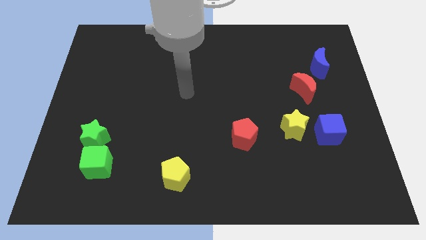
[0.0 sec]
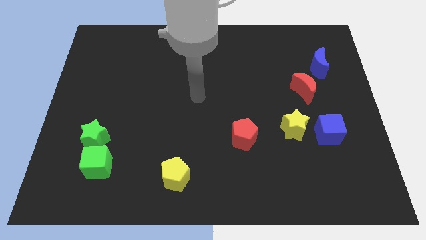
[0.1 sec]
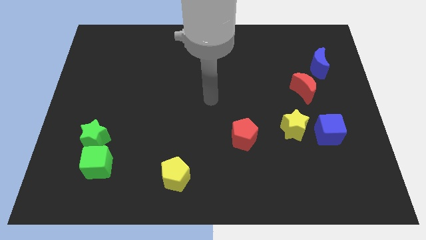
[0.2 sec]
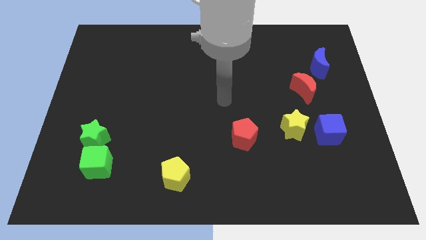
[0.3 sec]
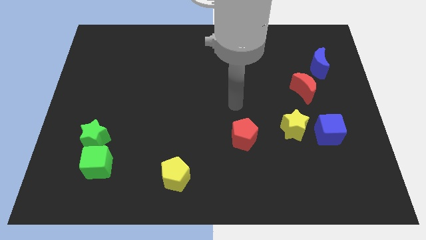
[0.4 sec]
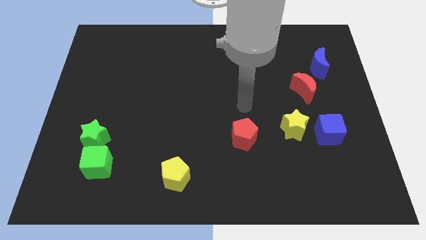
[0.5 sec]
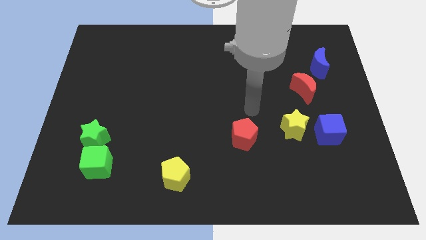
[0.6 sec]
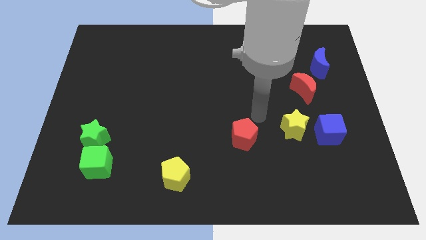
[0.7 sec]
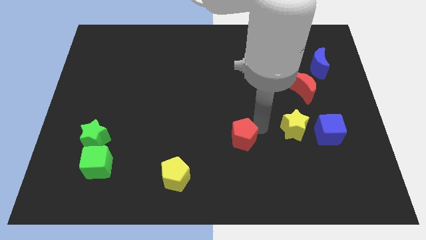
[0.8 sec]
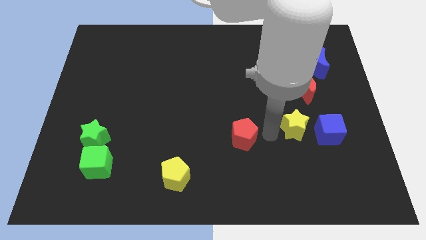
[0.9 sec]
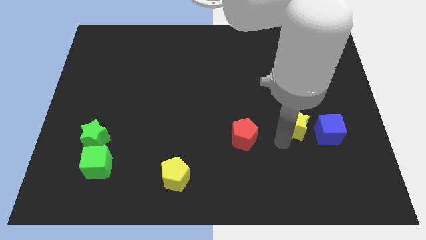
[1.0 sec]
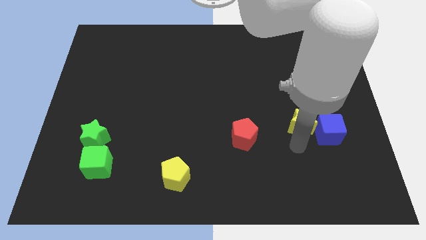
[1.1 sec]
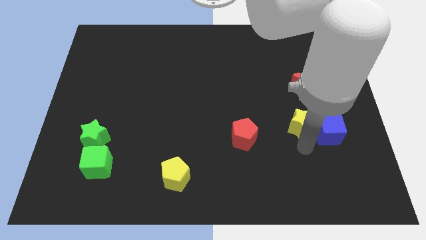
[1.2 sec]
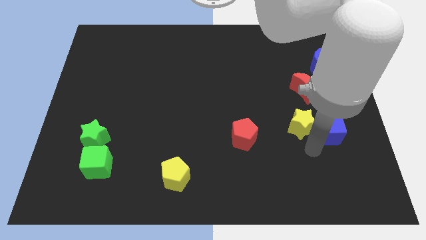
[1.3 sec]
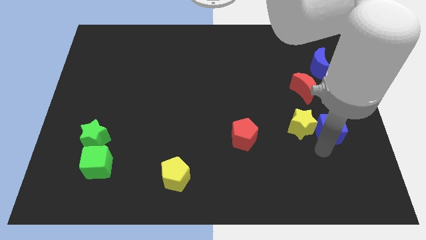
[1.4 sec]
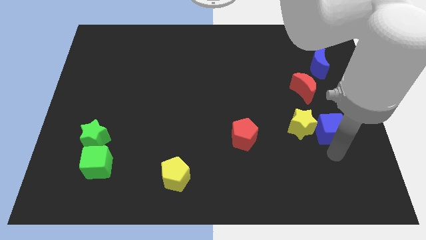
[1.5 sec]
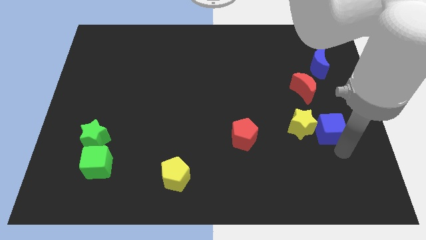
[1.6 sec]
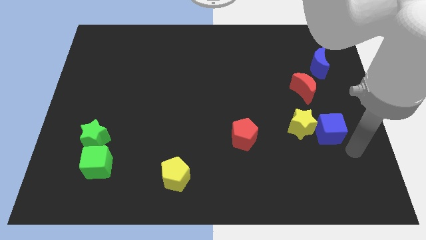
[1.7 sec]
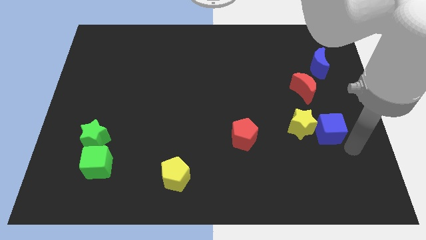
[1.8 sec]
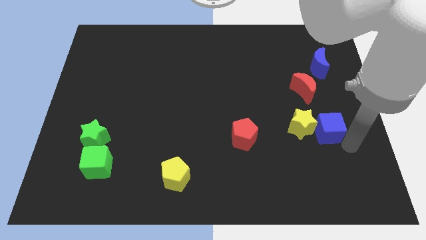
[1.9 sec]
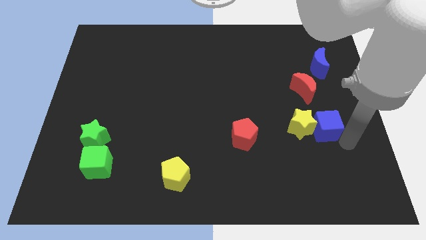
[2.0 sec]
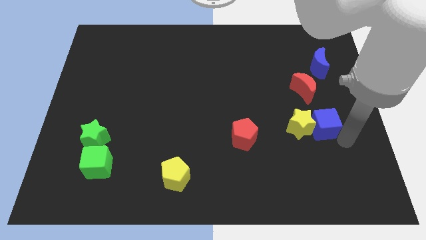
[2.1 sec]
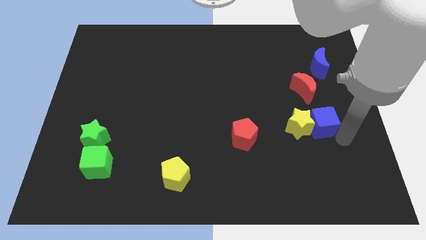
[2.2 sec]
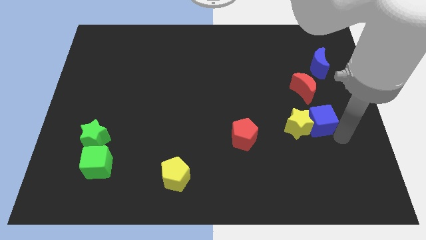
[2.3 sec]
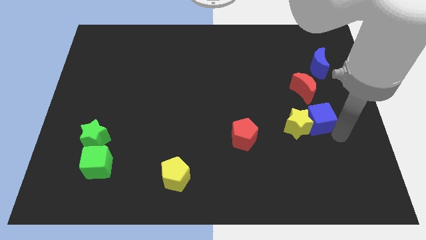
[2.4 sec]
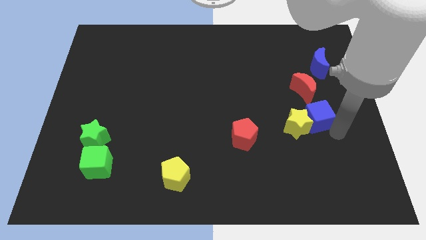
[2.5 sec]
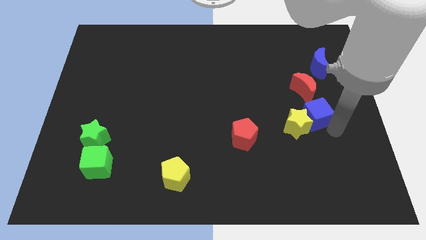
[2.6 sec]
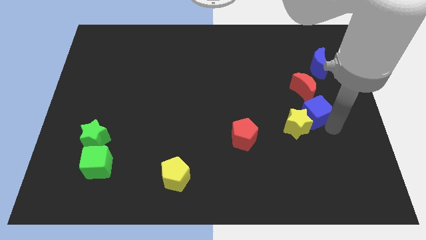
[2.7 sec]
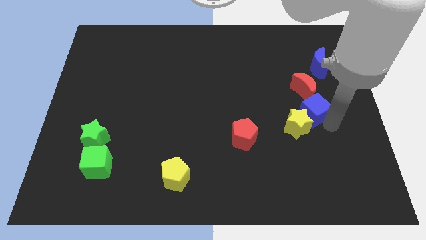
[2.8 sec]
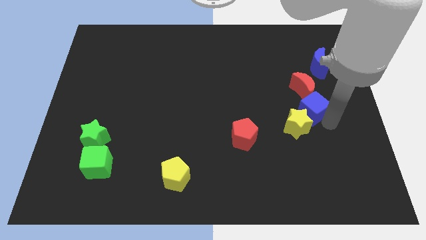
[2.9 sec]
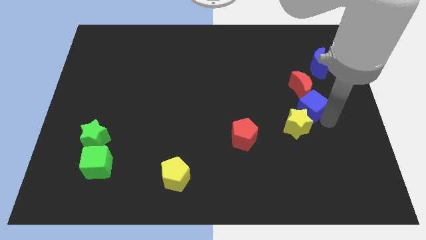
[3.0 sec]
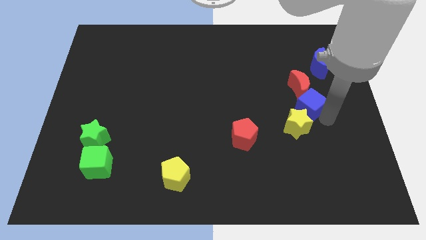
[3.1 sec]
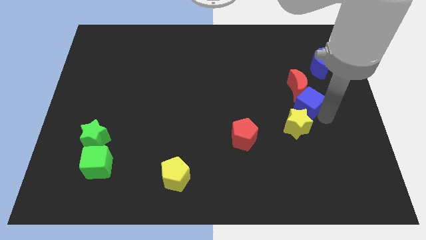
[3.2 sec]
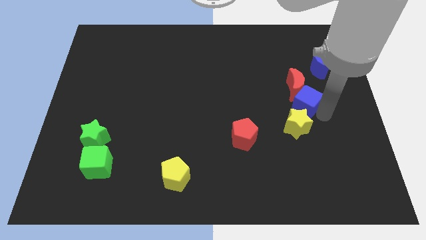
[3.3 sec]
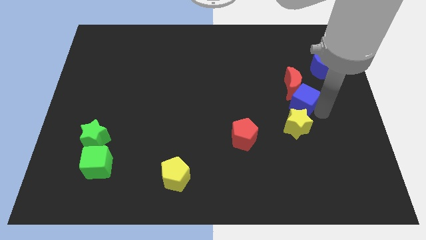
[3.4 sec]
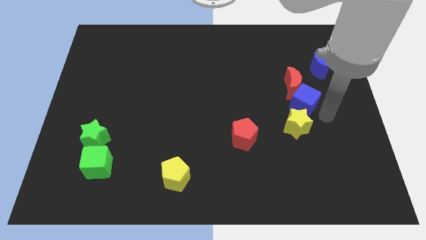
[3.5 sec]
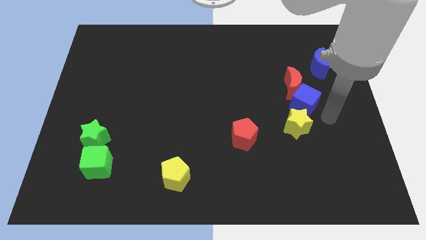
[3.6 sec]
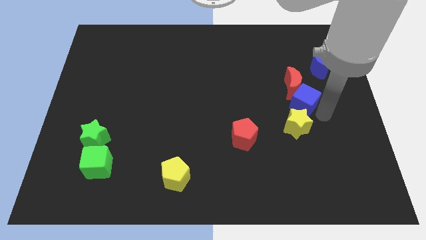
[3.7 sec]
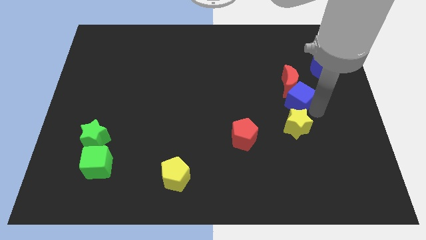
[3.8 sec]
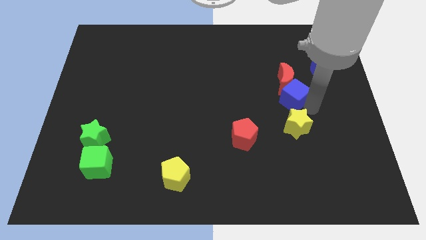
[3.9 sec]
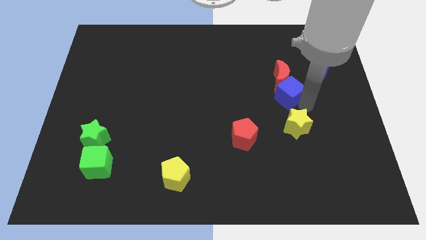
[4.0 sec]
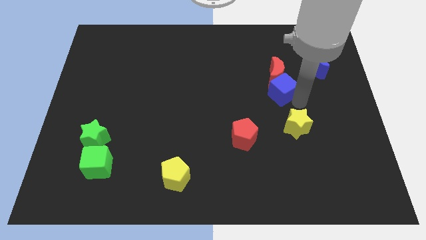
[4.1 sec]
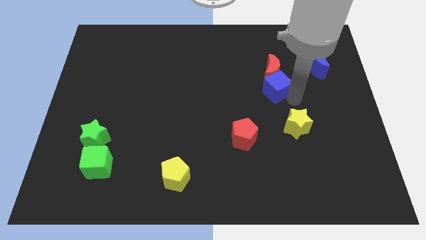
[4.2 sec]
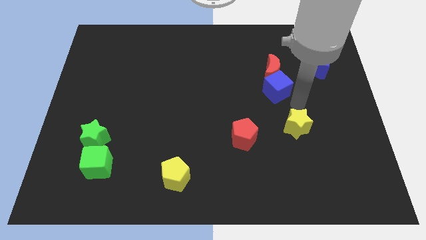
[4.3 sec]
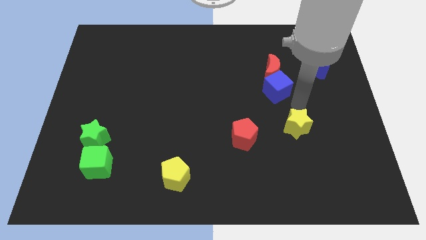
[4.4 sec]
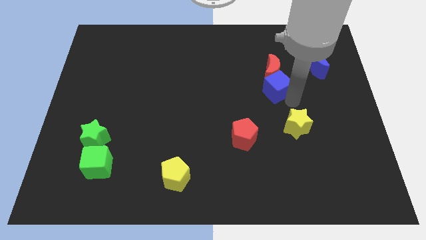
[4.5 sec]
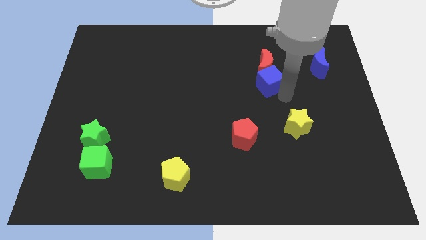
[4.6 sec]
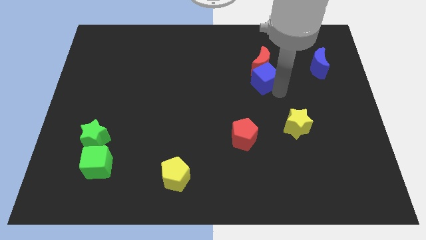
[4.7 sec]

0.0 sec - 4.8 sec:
move the blue cube diagonally up and left

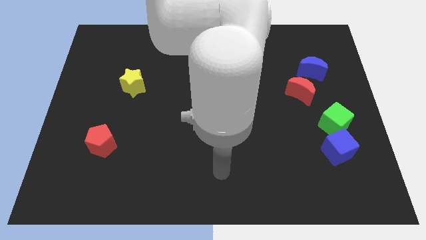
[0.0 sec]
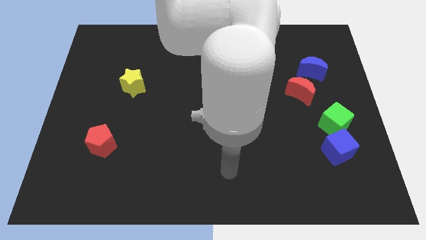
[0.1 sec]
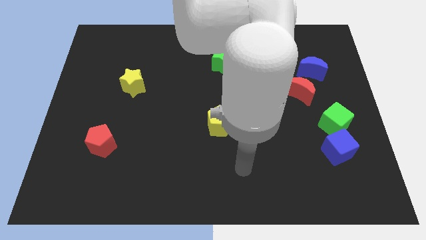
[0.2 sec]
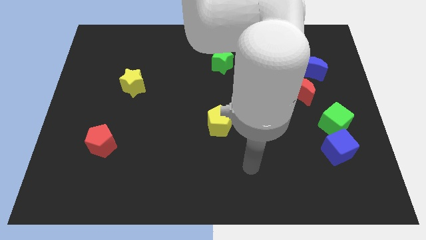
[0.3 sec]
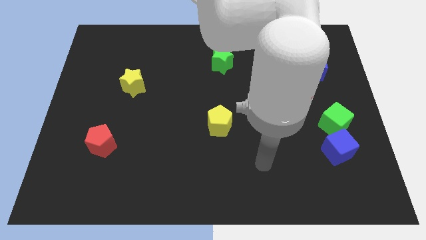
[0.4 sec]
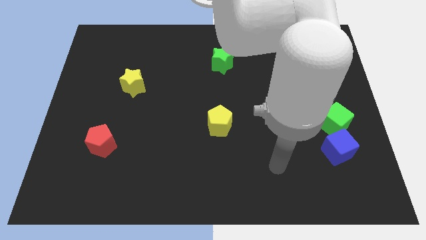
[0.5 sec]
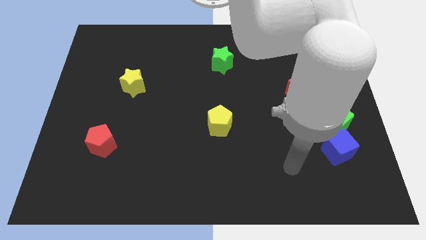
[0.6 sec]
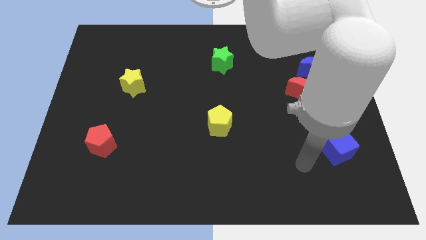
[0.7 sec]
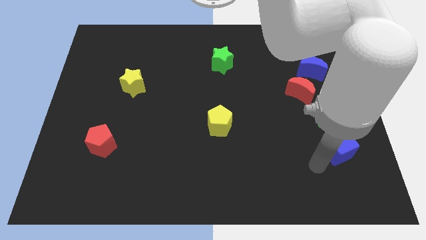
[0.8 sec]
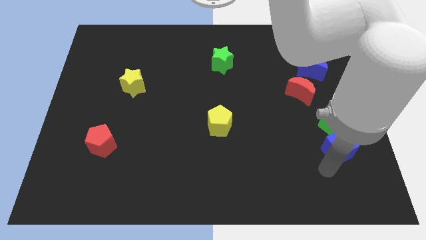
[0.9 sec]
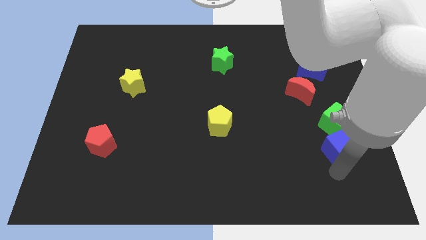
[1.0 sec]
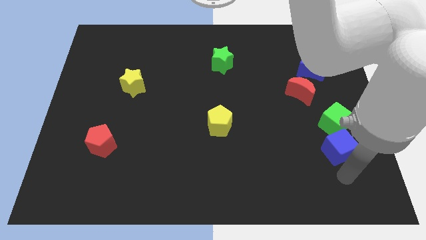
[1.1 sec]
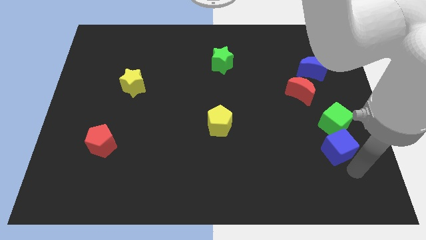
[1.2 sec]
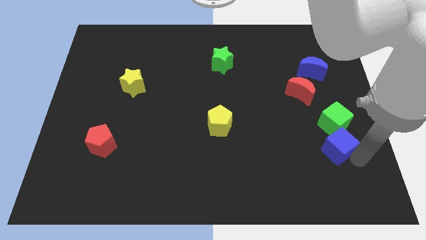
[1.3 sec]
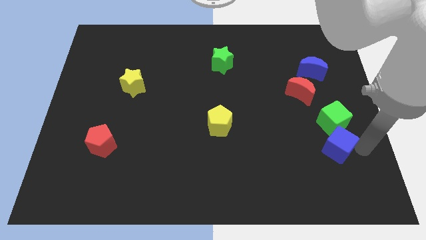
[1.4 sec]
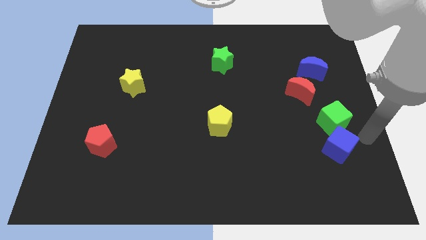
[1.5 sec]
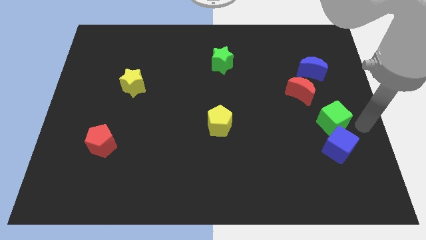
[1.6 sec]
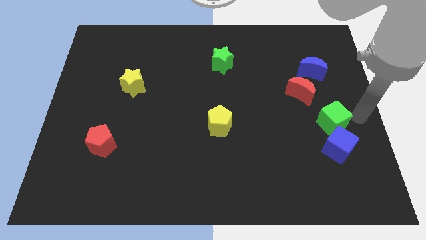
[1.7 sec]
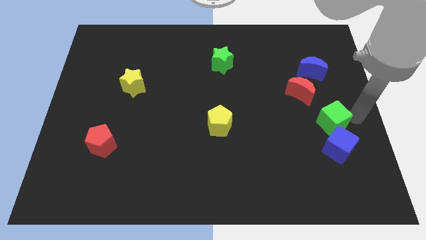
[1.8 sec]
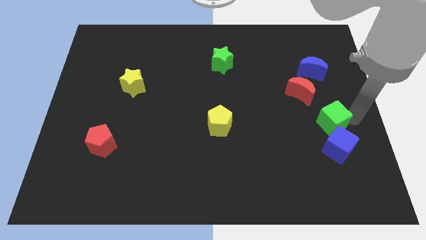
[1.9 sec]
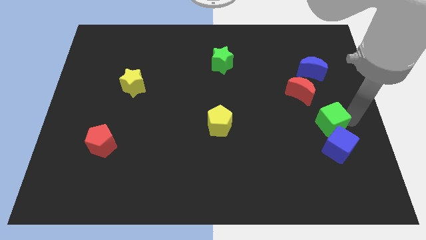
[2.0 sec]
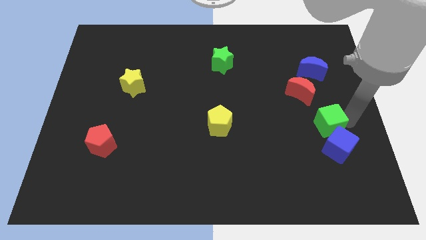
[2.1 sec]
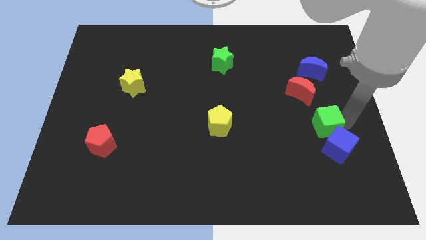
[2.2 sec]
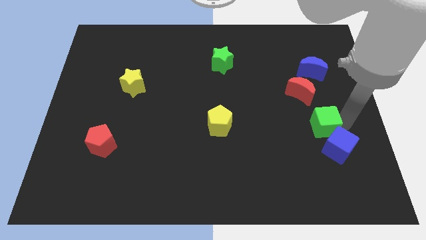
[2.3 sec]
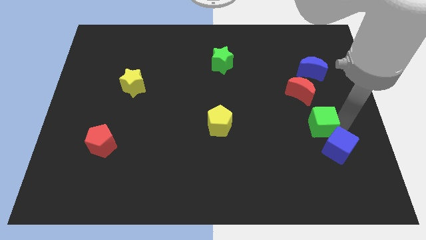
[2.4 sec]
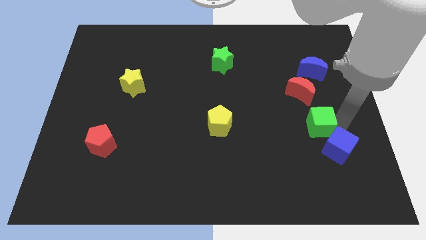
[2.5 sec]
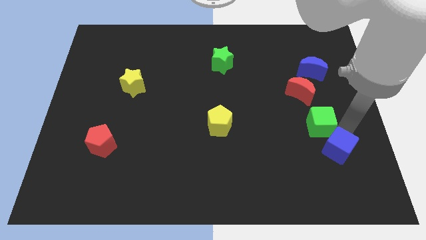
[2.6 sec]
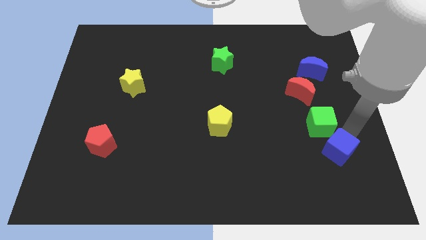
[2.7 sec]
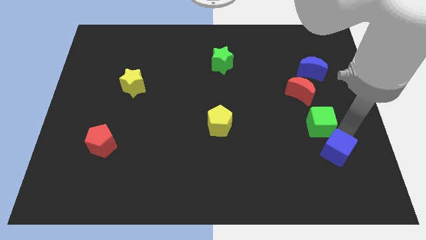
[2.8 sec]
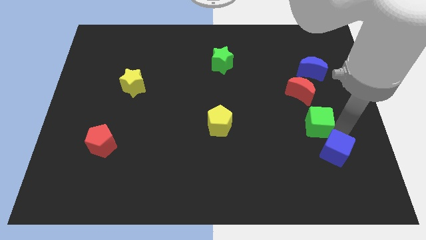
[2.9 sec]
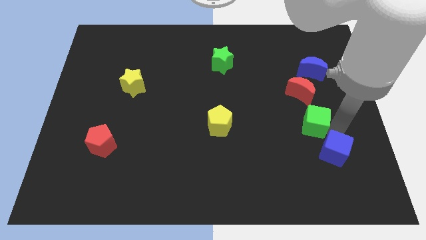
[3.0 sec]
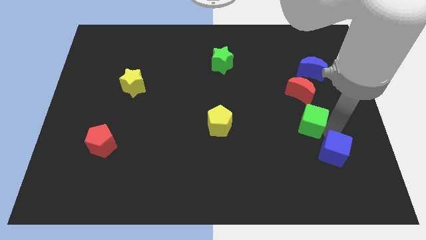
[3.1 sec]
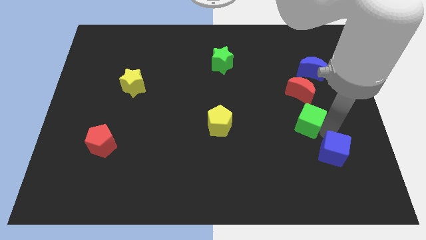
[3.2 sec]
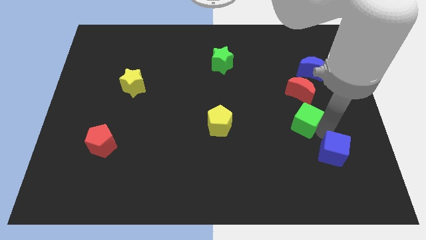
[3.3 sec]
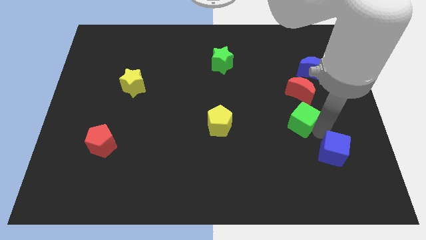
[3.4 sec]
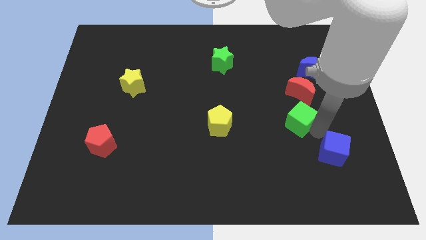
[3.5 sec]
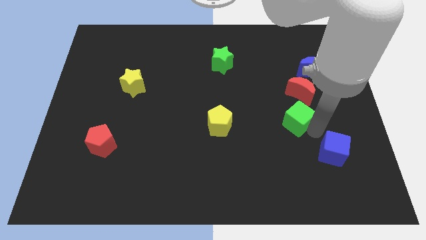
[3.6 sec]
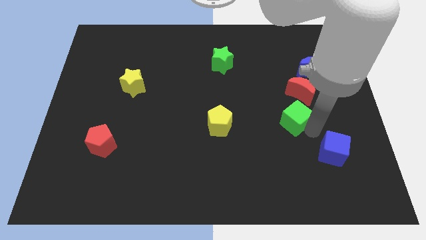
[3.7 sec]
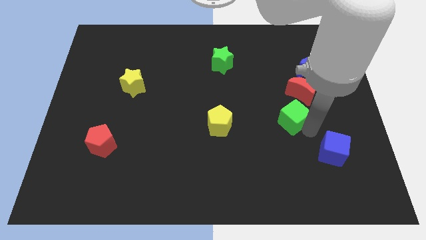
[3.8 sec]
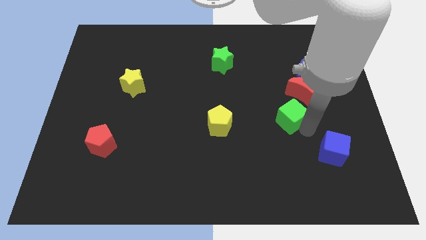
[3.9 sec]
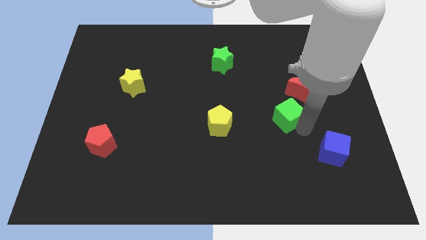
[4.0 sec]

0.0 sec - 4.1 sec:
move the green cube up and to the left a little bit
